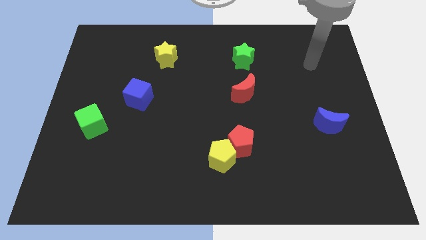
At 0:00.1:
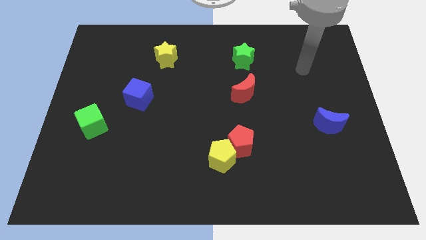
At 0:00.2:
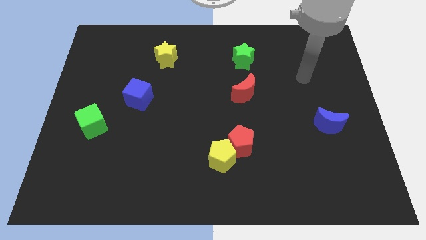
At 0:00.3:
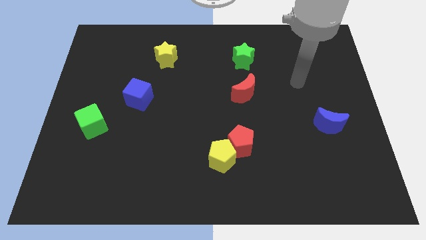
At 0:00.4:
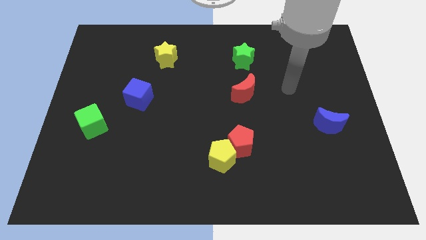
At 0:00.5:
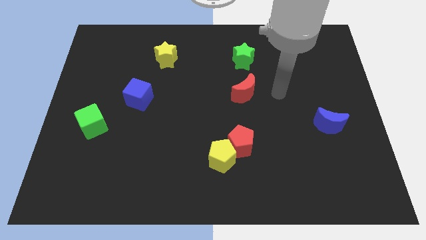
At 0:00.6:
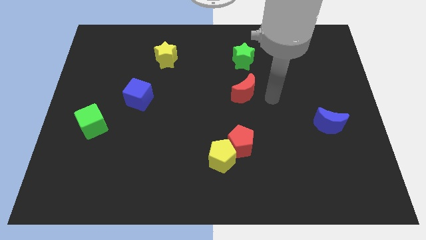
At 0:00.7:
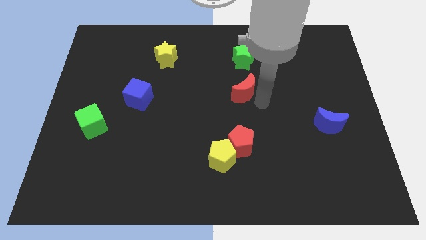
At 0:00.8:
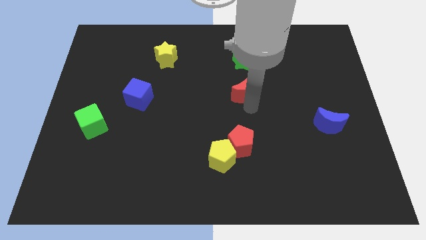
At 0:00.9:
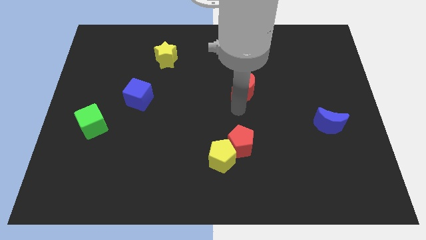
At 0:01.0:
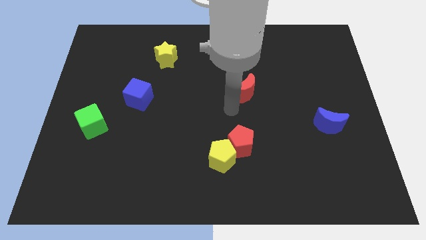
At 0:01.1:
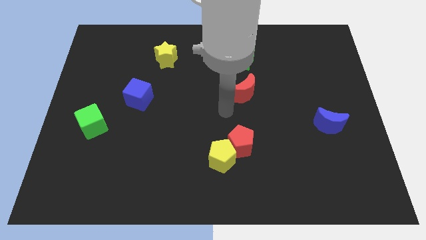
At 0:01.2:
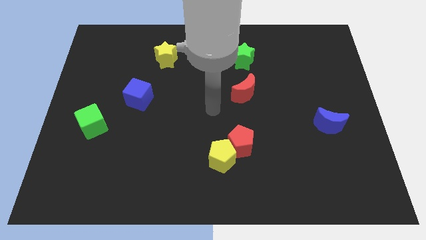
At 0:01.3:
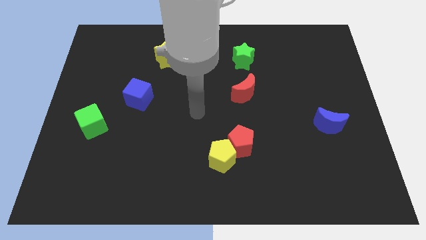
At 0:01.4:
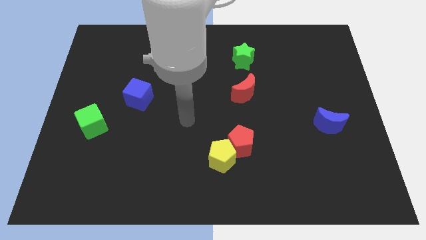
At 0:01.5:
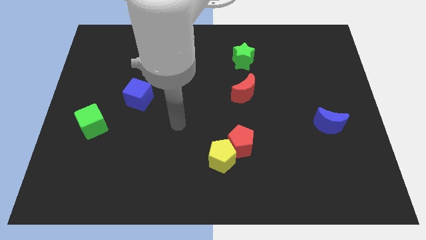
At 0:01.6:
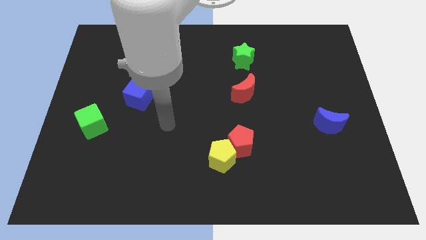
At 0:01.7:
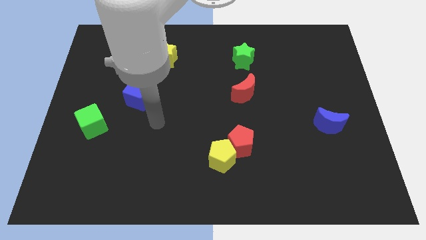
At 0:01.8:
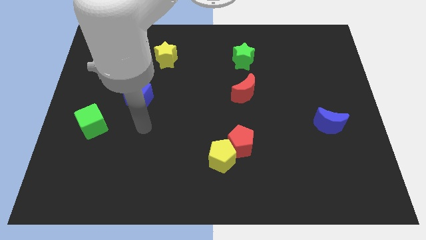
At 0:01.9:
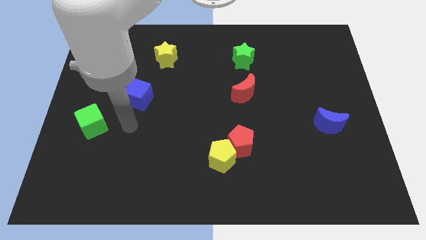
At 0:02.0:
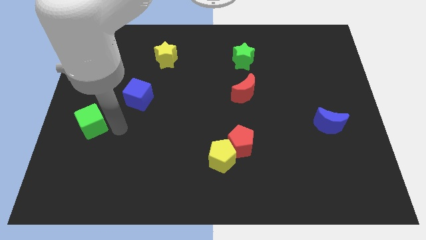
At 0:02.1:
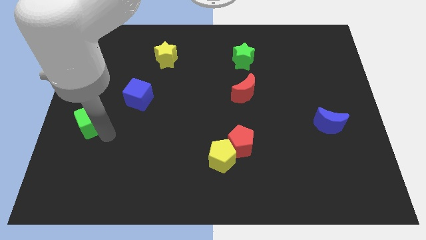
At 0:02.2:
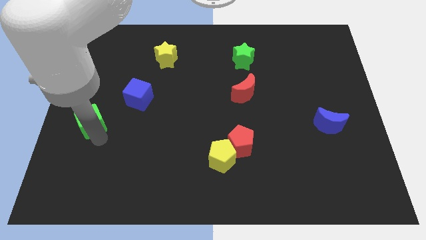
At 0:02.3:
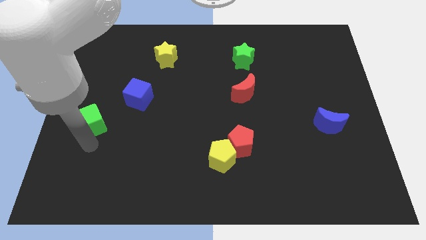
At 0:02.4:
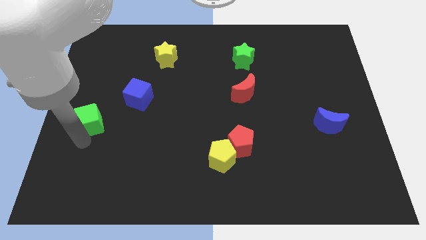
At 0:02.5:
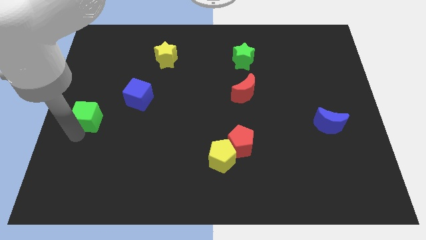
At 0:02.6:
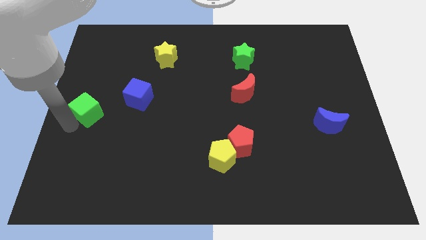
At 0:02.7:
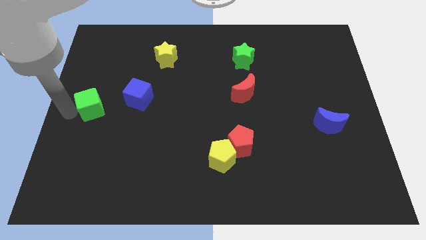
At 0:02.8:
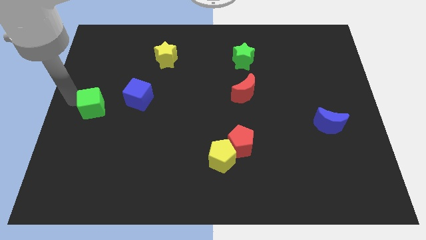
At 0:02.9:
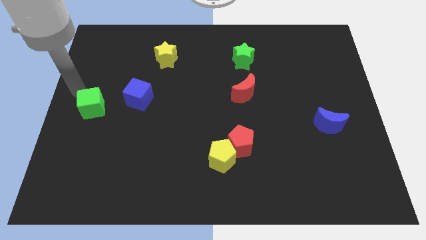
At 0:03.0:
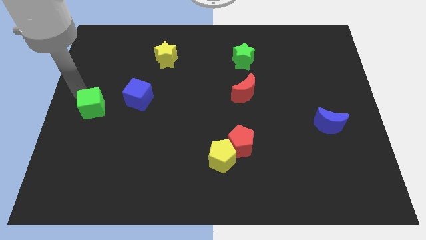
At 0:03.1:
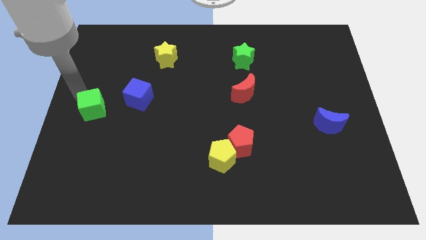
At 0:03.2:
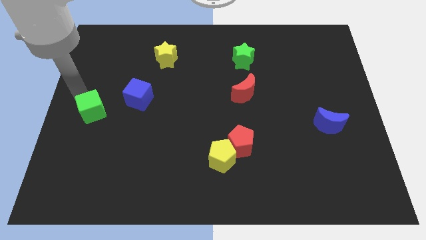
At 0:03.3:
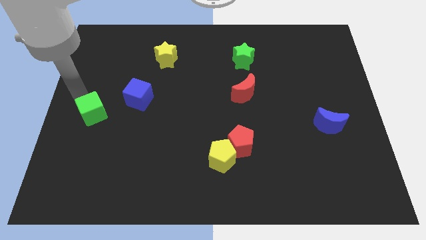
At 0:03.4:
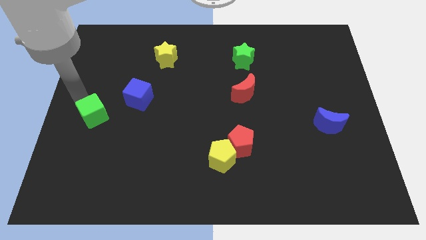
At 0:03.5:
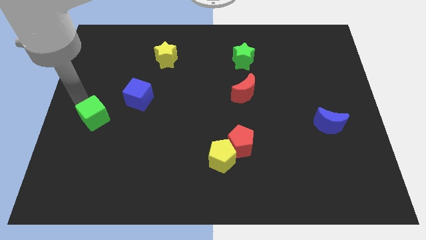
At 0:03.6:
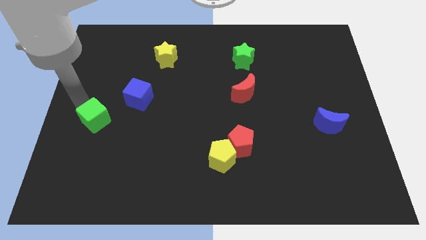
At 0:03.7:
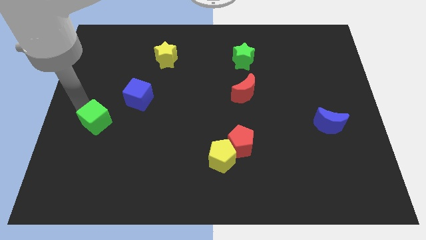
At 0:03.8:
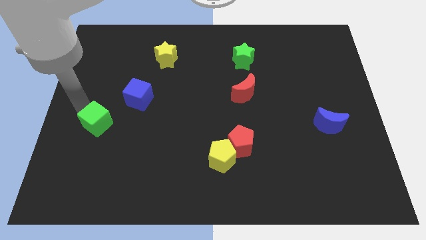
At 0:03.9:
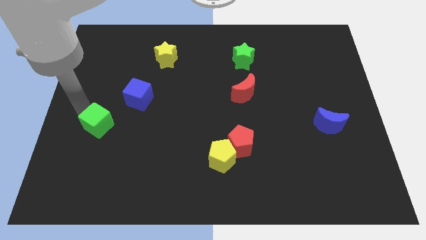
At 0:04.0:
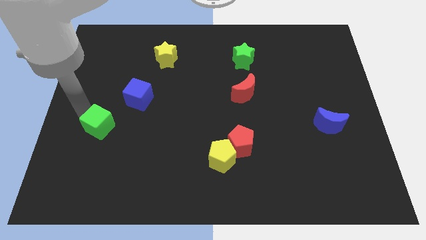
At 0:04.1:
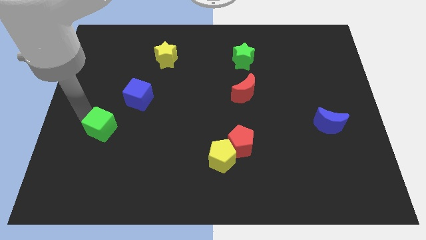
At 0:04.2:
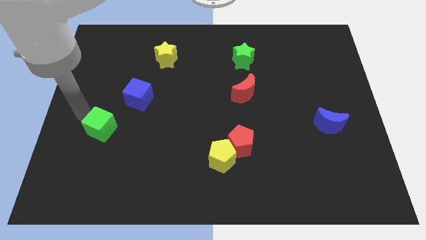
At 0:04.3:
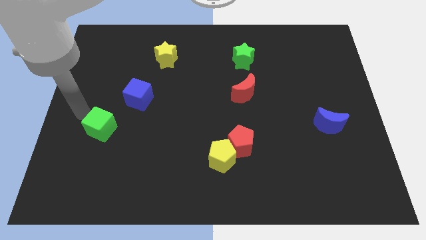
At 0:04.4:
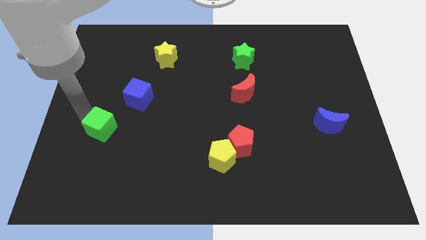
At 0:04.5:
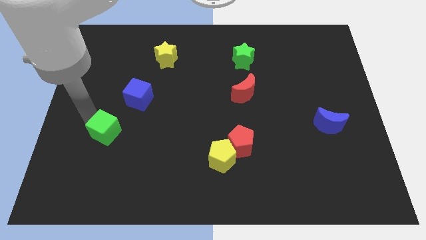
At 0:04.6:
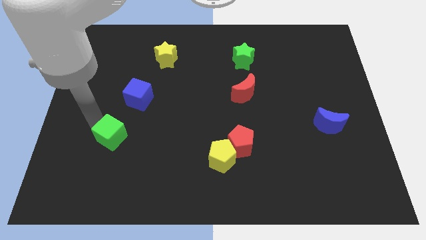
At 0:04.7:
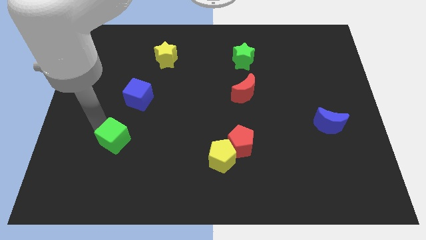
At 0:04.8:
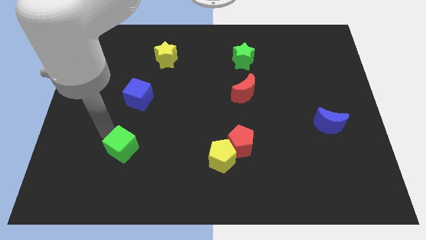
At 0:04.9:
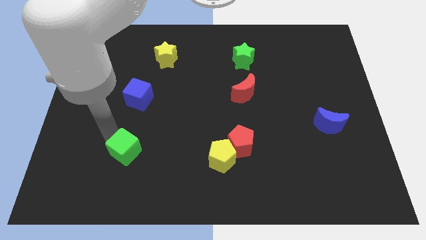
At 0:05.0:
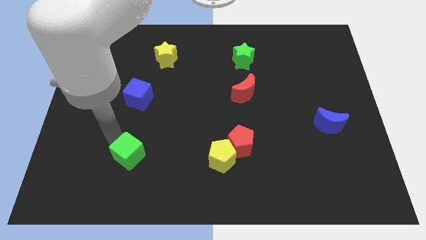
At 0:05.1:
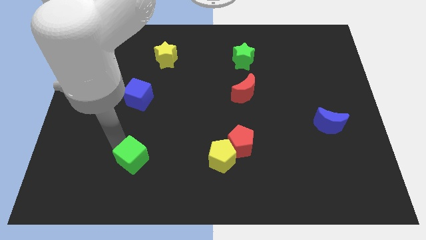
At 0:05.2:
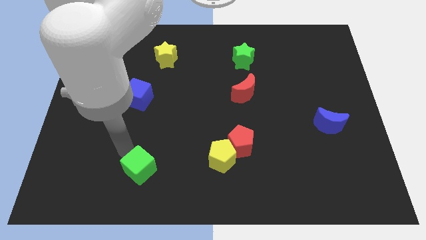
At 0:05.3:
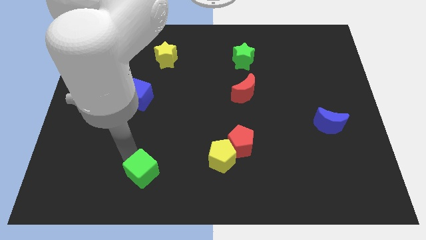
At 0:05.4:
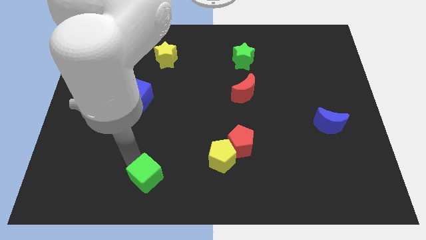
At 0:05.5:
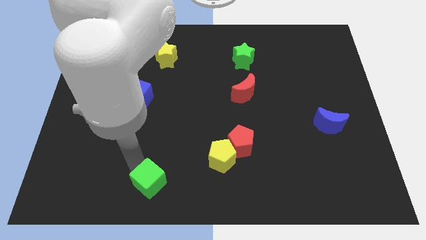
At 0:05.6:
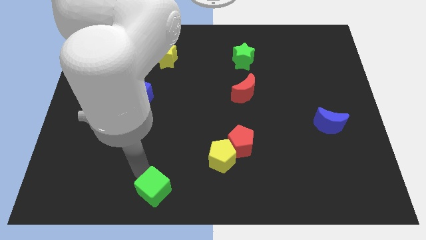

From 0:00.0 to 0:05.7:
slide the green cube to the bottom

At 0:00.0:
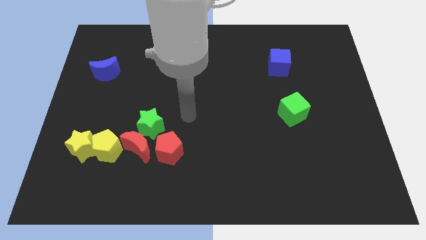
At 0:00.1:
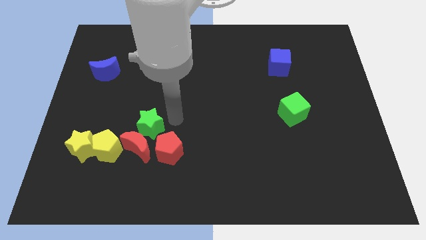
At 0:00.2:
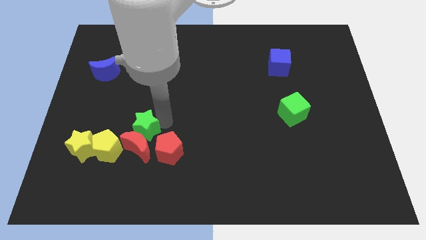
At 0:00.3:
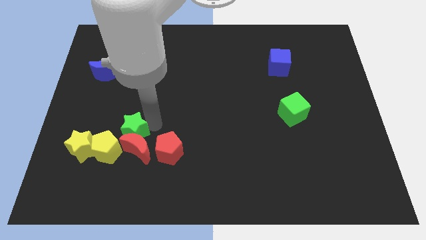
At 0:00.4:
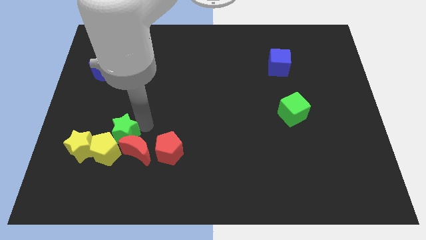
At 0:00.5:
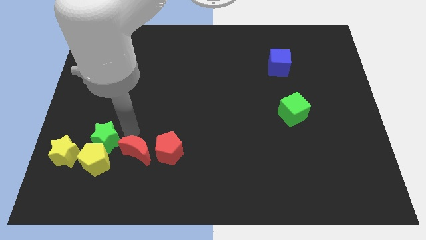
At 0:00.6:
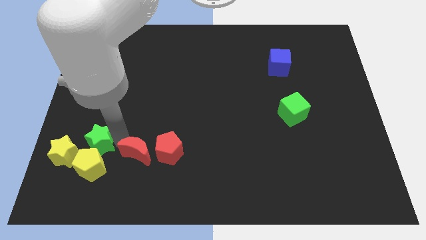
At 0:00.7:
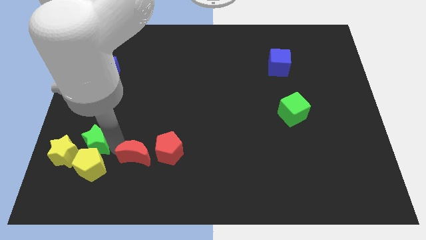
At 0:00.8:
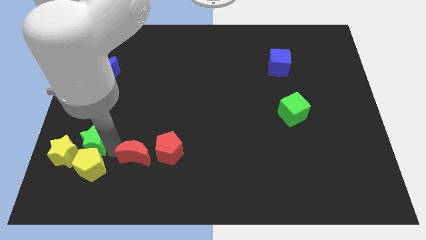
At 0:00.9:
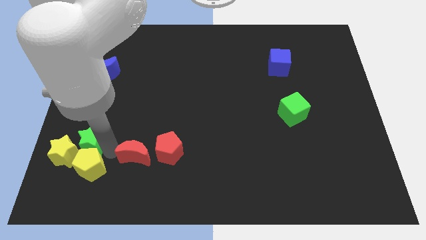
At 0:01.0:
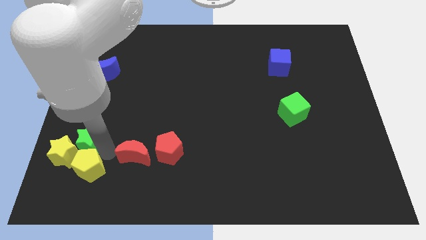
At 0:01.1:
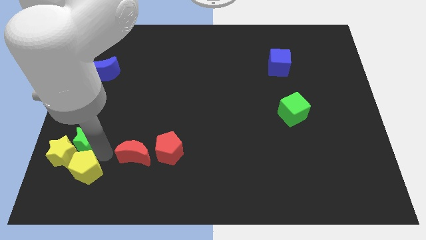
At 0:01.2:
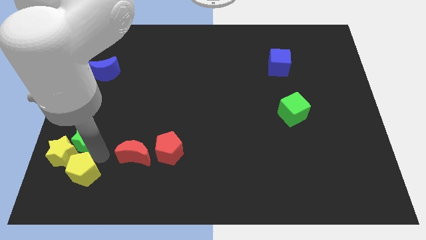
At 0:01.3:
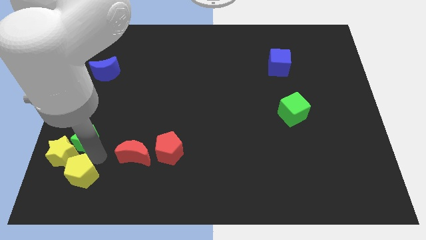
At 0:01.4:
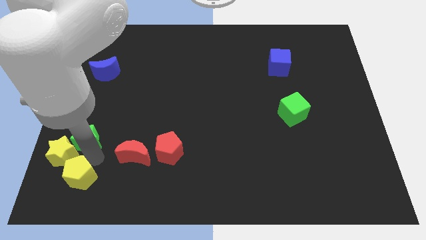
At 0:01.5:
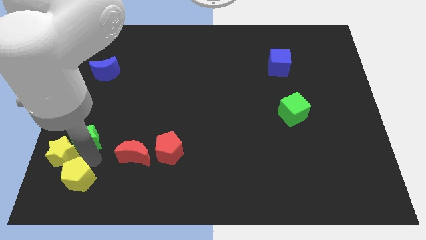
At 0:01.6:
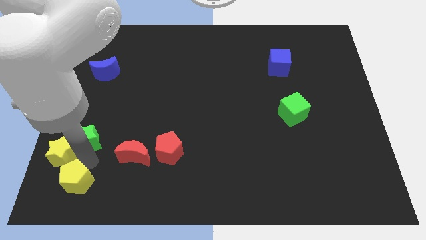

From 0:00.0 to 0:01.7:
move the yellow pentagon to the lower left corner
